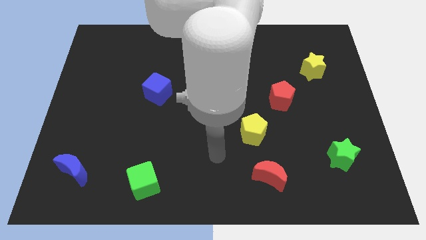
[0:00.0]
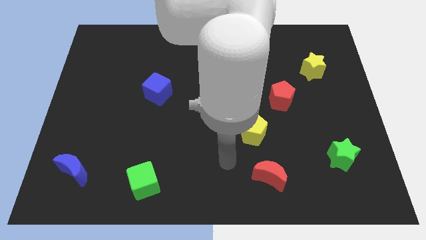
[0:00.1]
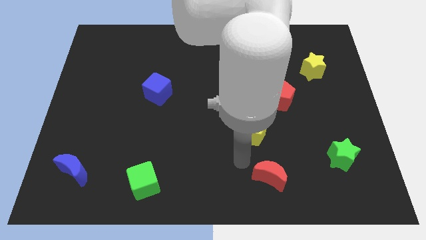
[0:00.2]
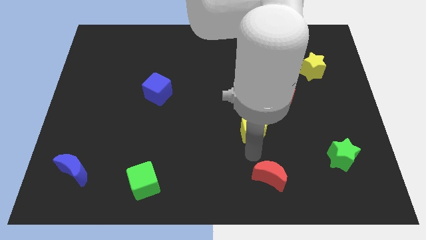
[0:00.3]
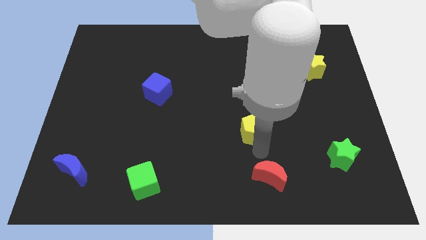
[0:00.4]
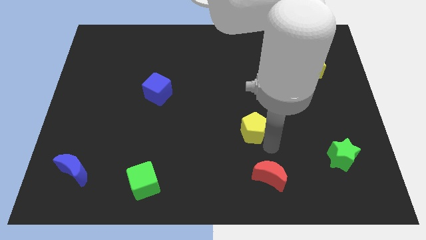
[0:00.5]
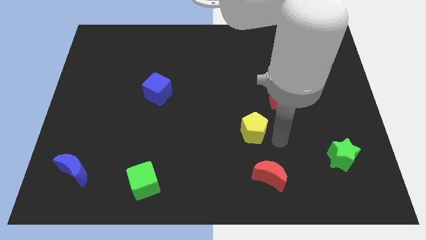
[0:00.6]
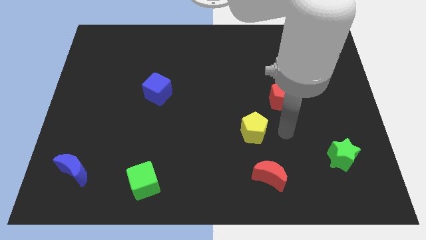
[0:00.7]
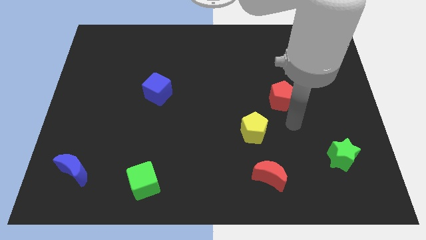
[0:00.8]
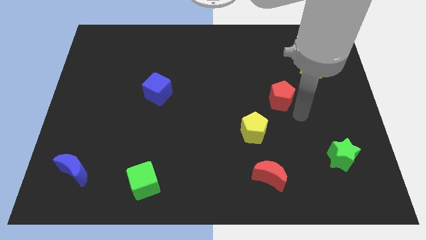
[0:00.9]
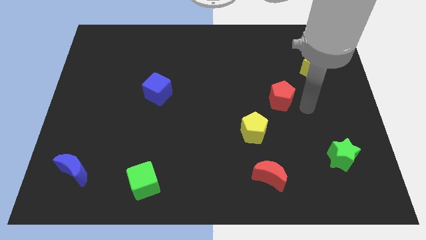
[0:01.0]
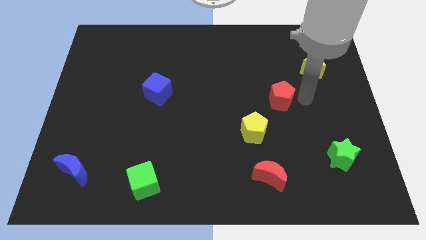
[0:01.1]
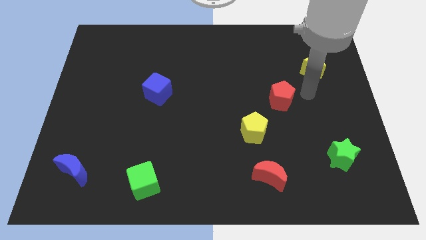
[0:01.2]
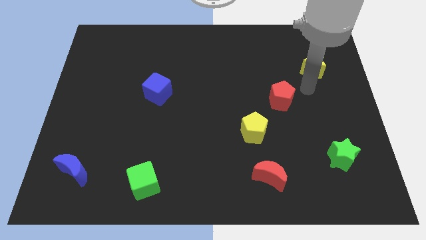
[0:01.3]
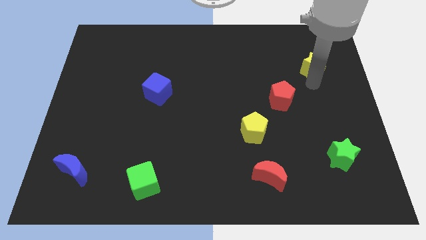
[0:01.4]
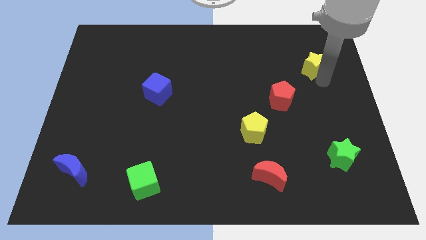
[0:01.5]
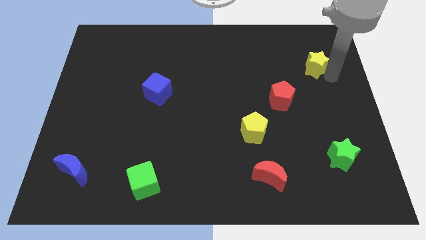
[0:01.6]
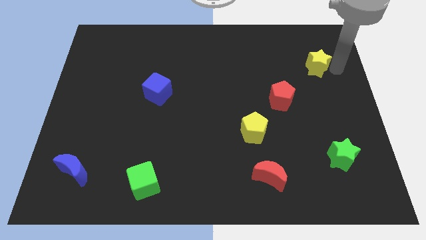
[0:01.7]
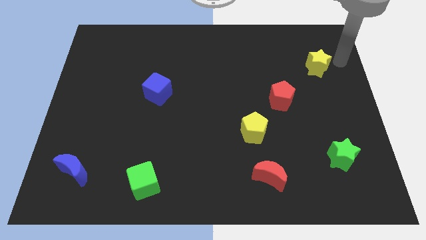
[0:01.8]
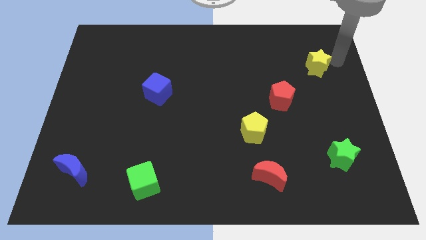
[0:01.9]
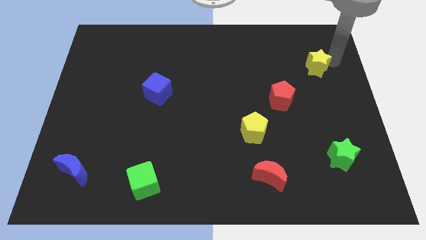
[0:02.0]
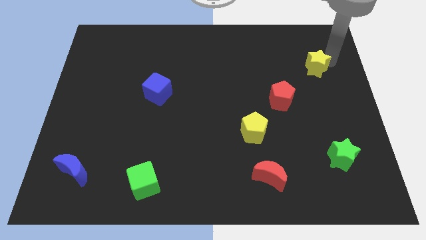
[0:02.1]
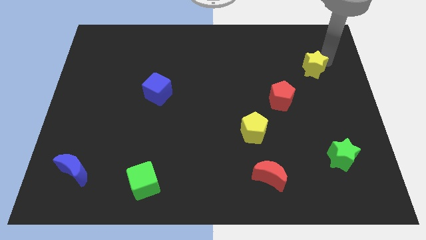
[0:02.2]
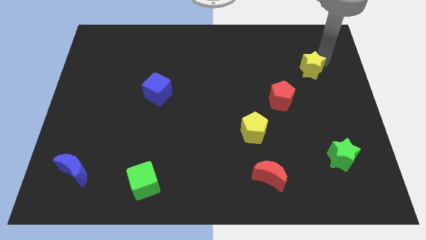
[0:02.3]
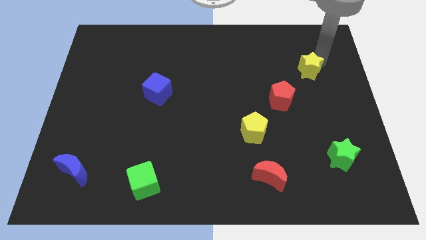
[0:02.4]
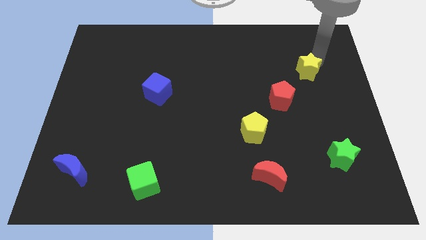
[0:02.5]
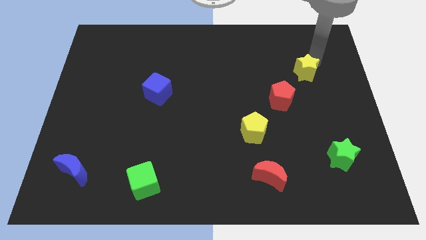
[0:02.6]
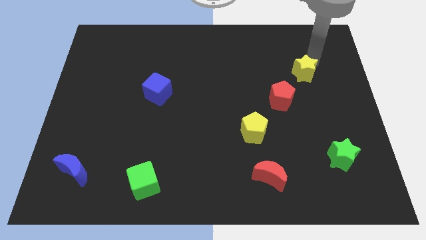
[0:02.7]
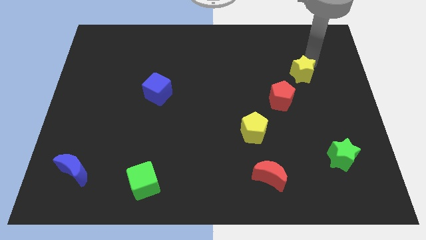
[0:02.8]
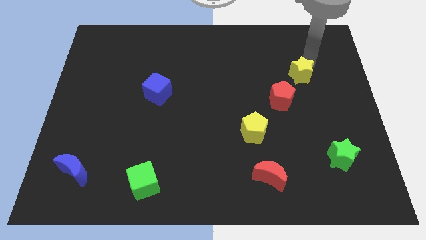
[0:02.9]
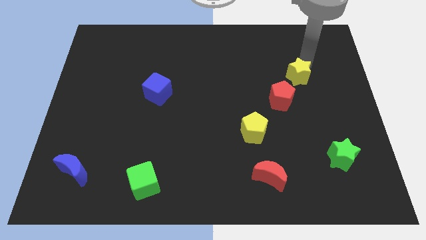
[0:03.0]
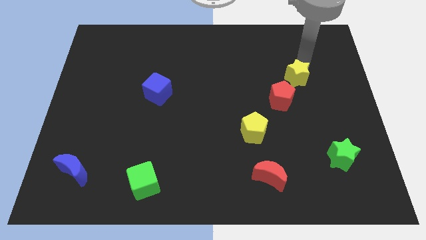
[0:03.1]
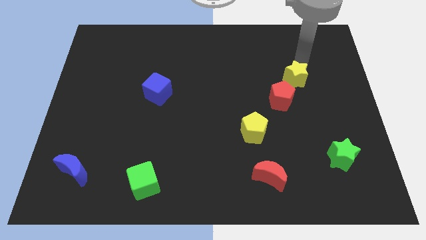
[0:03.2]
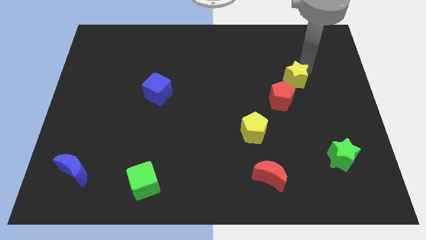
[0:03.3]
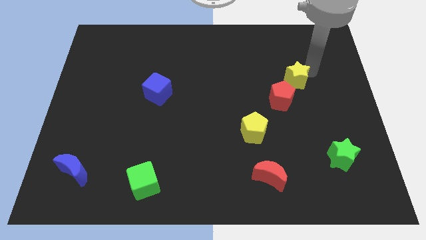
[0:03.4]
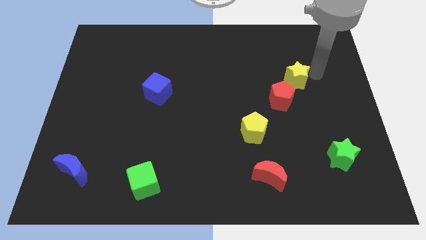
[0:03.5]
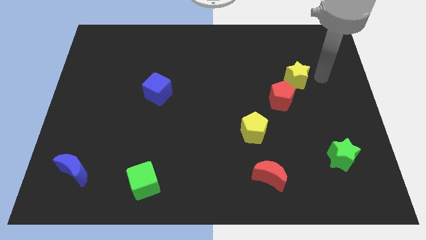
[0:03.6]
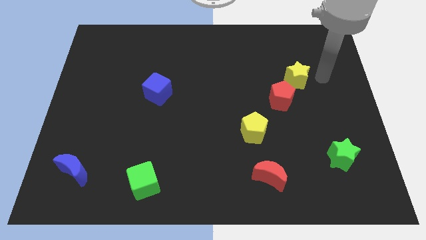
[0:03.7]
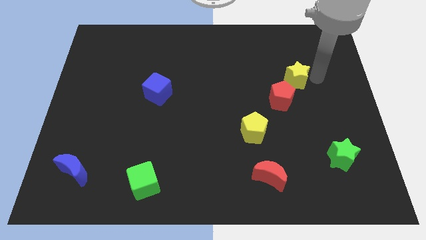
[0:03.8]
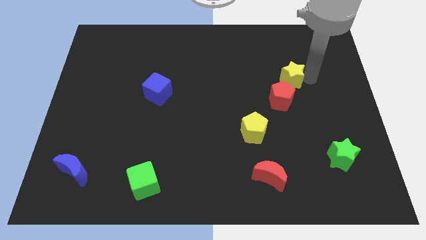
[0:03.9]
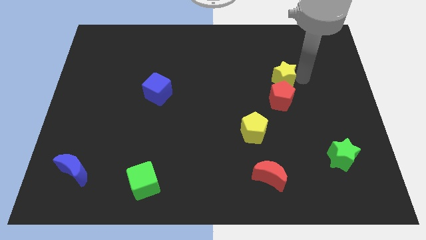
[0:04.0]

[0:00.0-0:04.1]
slide the yellow star somewhat downwards and then left

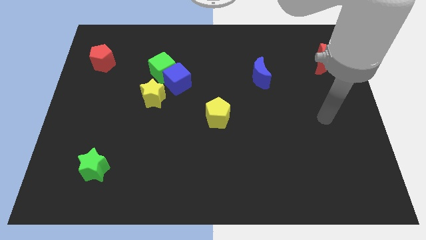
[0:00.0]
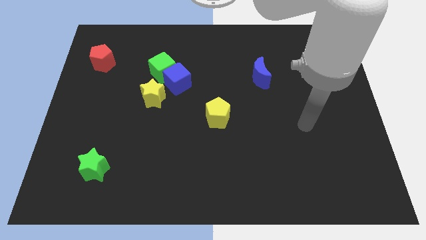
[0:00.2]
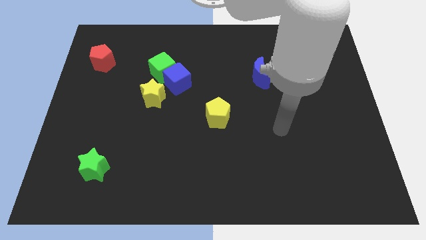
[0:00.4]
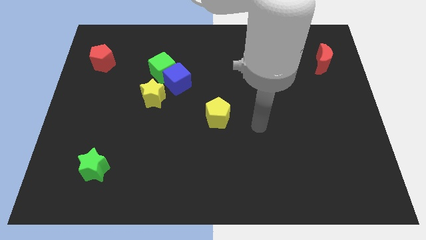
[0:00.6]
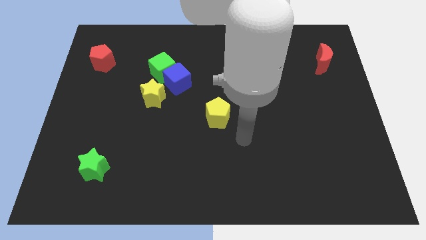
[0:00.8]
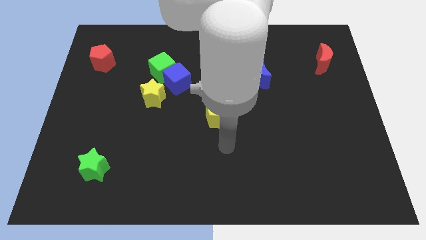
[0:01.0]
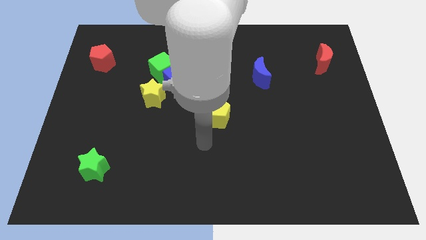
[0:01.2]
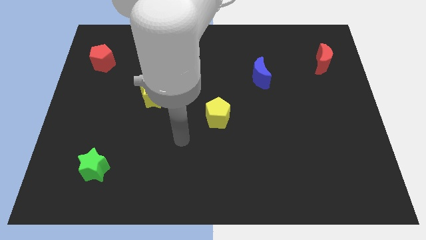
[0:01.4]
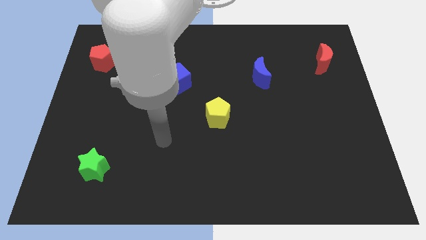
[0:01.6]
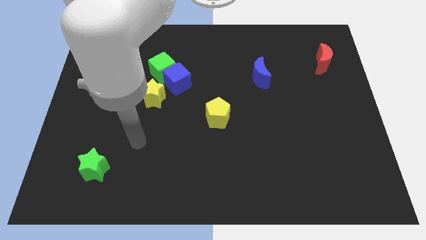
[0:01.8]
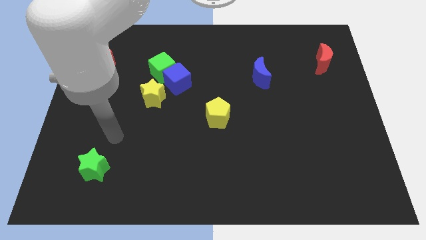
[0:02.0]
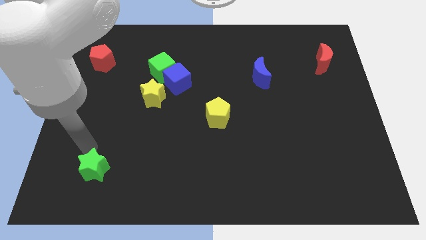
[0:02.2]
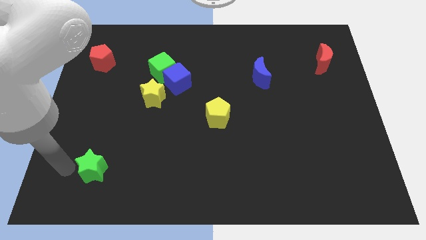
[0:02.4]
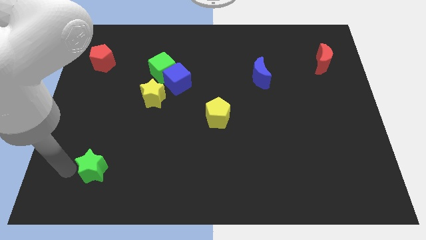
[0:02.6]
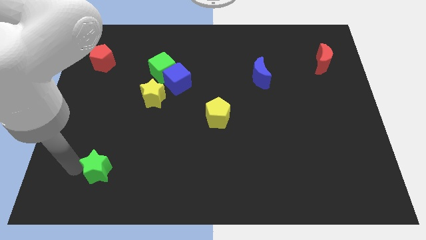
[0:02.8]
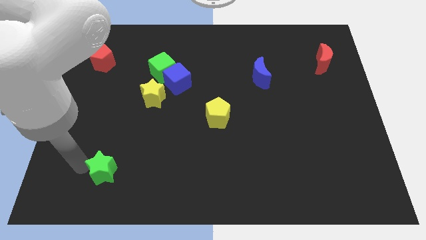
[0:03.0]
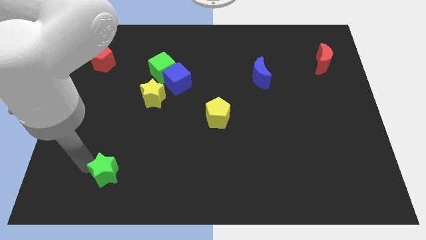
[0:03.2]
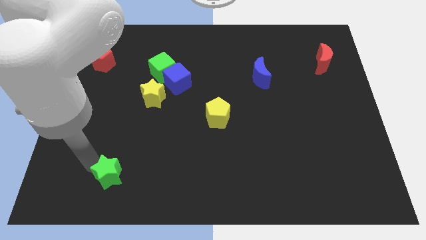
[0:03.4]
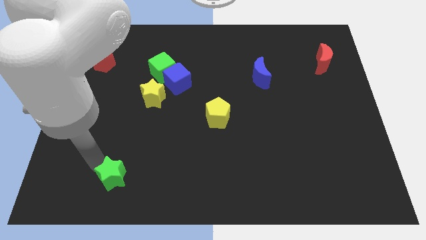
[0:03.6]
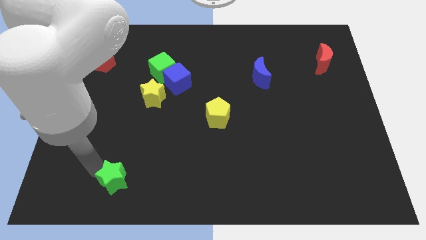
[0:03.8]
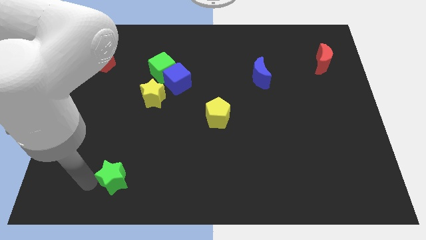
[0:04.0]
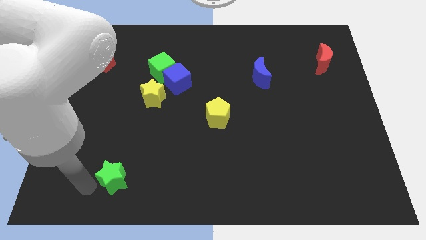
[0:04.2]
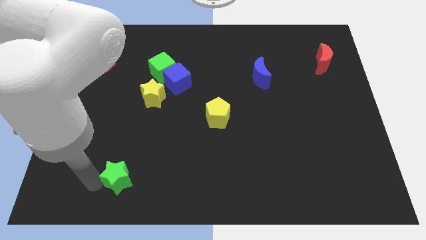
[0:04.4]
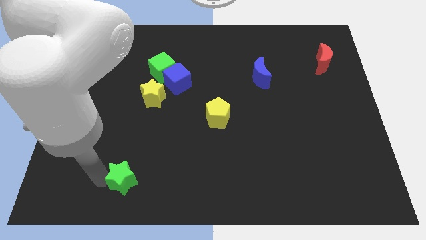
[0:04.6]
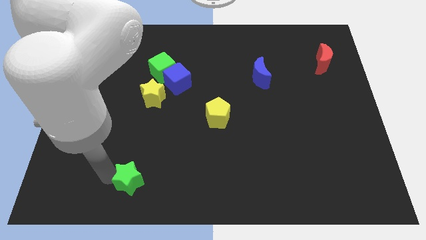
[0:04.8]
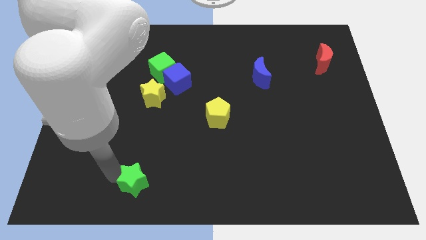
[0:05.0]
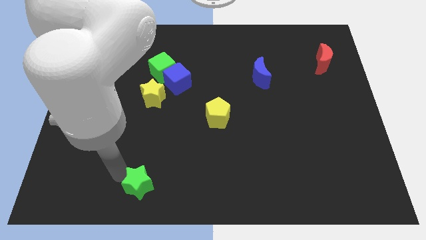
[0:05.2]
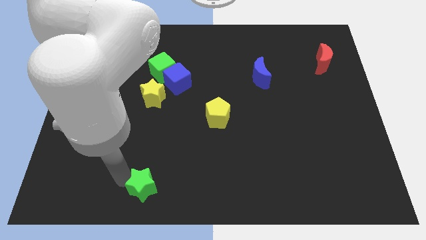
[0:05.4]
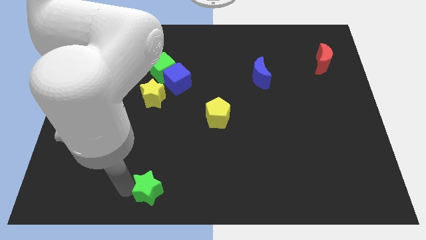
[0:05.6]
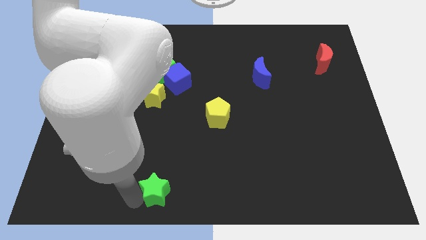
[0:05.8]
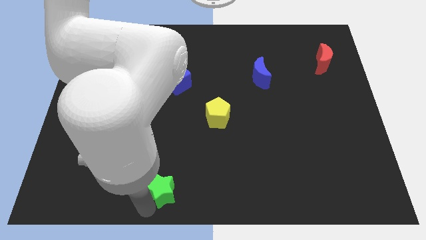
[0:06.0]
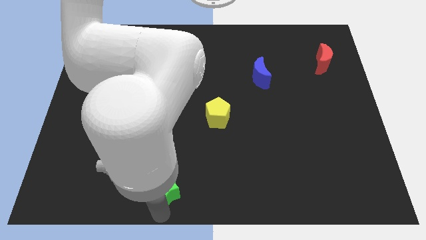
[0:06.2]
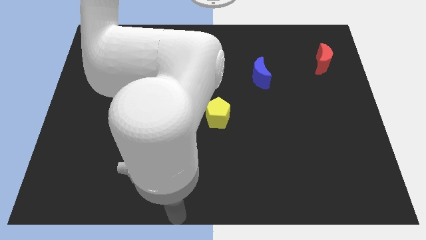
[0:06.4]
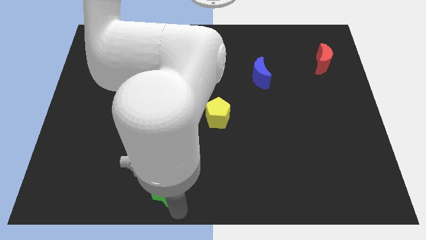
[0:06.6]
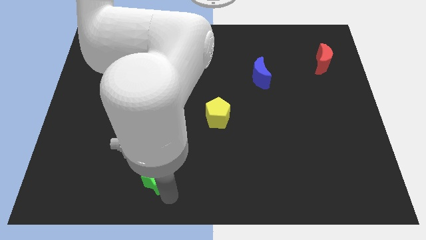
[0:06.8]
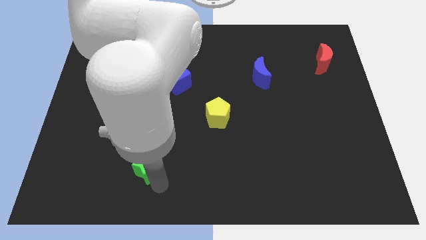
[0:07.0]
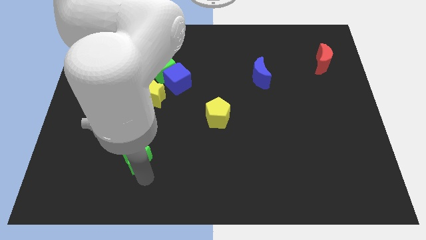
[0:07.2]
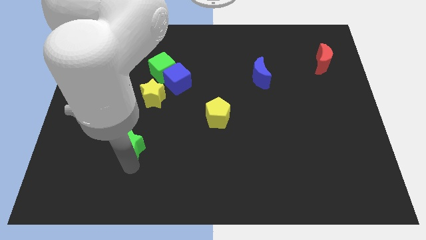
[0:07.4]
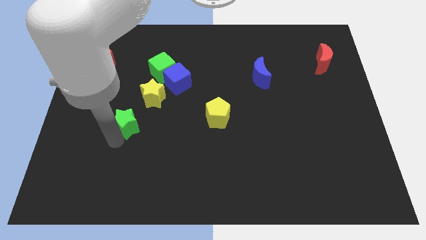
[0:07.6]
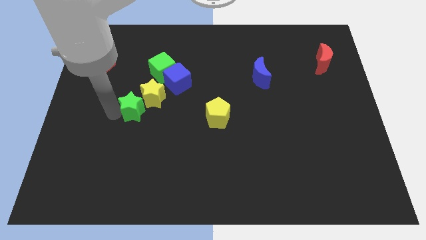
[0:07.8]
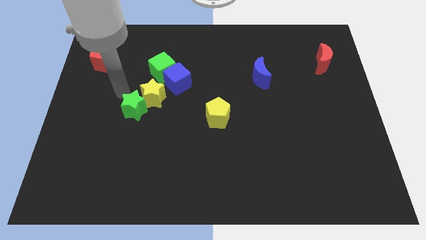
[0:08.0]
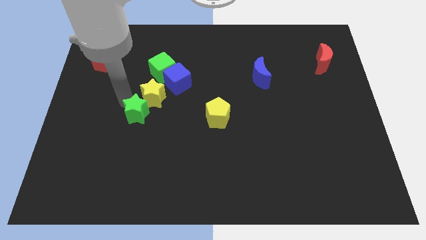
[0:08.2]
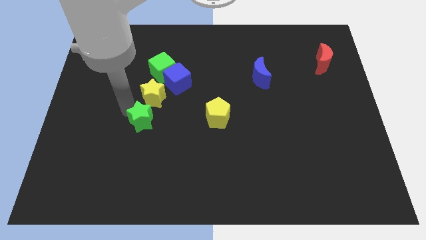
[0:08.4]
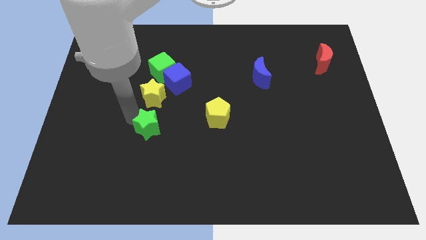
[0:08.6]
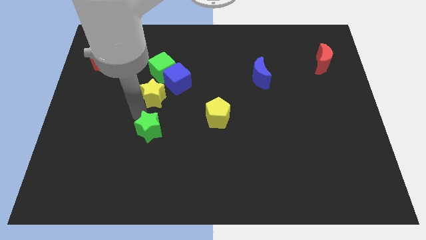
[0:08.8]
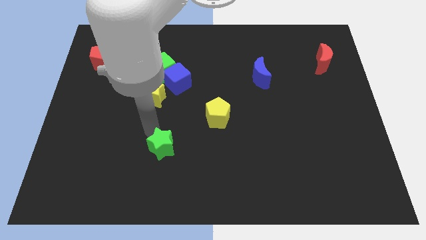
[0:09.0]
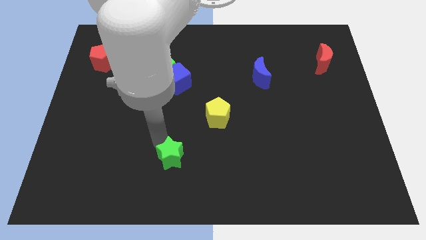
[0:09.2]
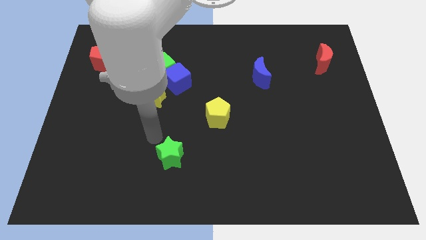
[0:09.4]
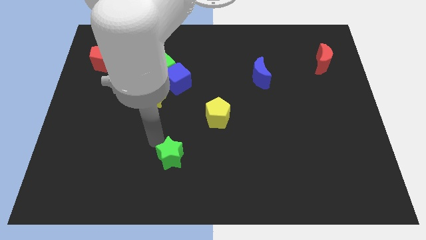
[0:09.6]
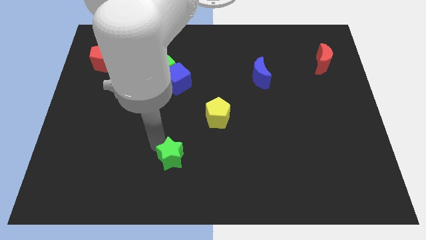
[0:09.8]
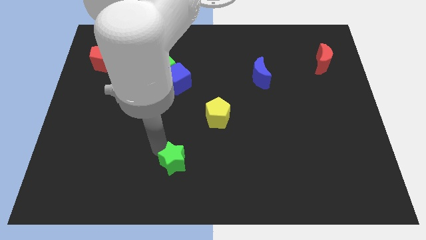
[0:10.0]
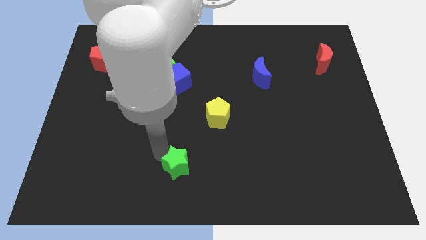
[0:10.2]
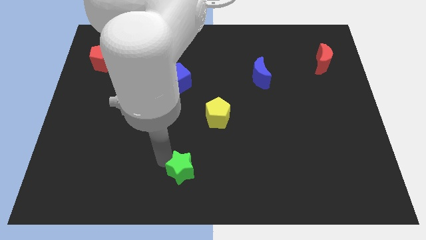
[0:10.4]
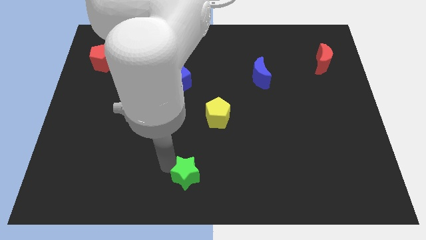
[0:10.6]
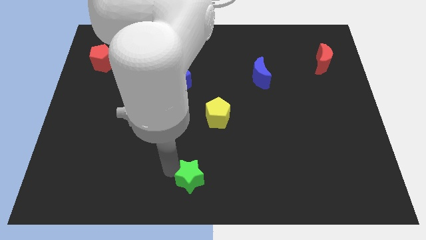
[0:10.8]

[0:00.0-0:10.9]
slide the green star right
